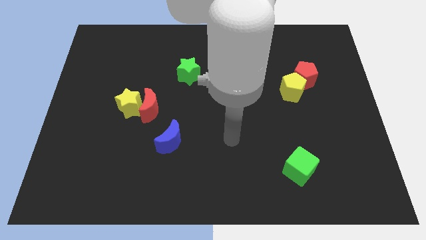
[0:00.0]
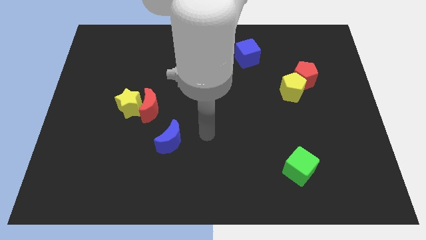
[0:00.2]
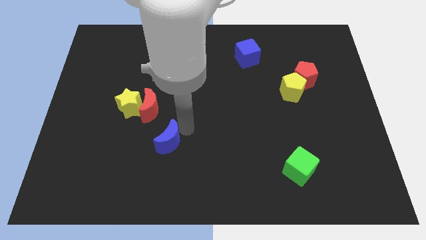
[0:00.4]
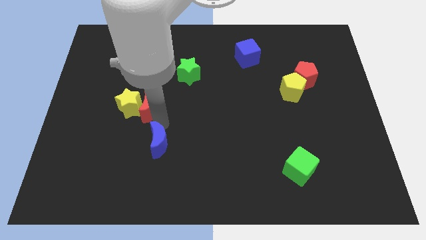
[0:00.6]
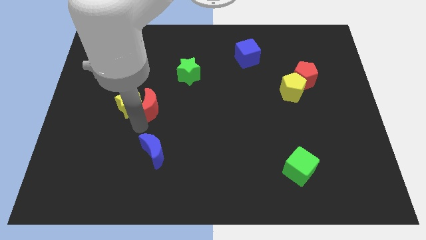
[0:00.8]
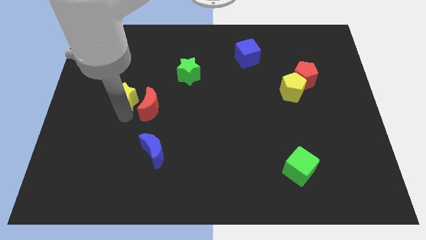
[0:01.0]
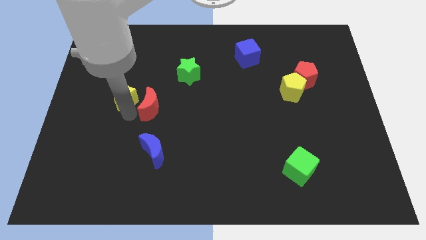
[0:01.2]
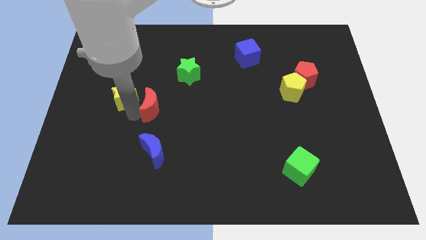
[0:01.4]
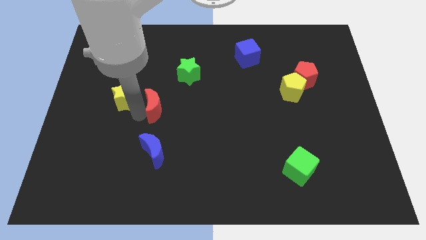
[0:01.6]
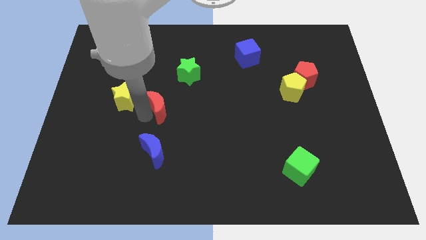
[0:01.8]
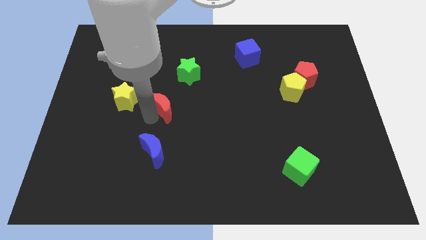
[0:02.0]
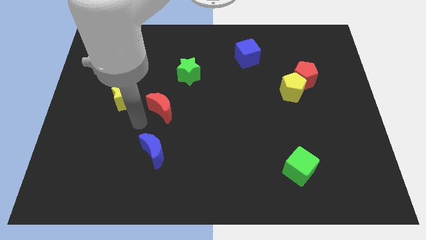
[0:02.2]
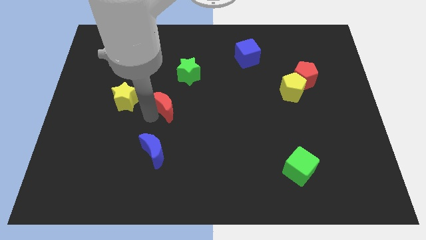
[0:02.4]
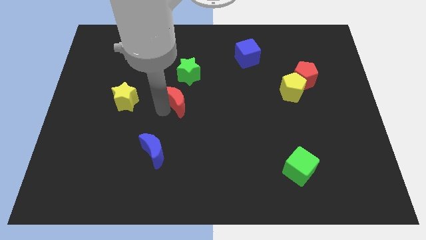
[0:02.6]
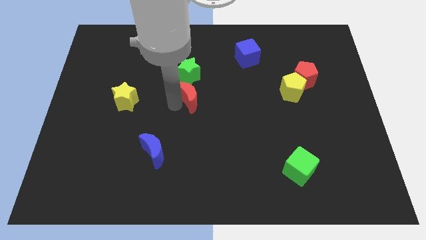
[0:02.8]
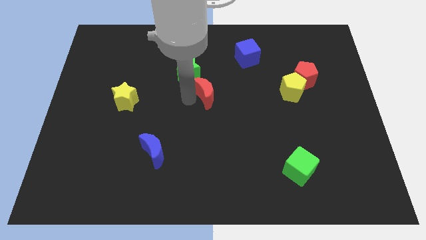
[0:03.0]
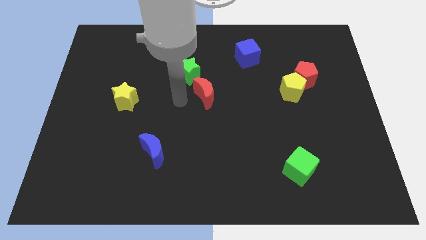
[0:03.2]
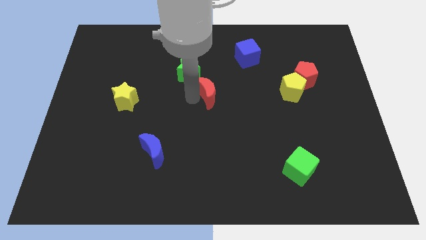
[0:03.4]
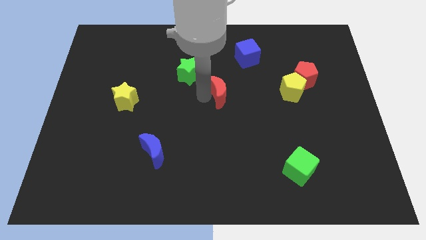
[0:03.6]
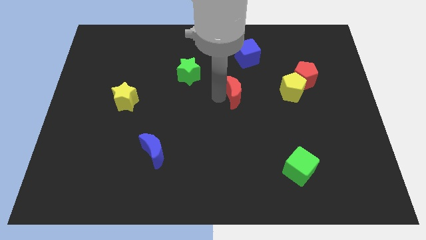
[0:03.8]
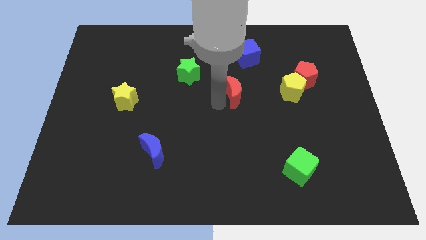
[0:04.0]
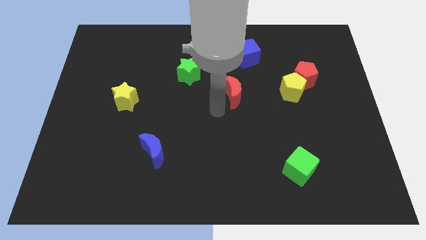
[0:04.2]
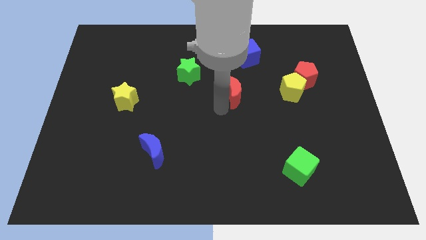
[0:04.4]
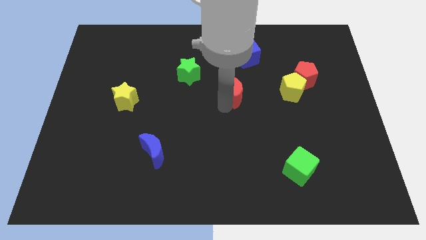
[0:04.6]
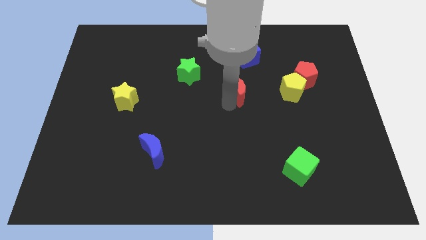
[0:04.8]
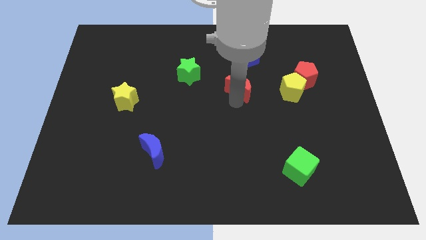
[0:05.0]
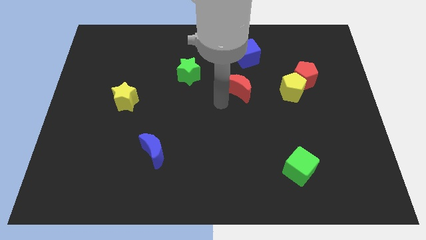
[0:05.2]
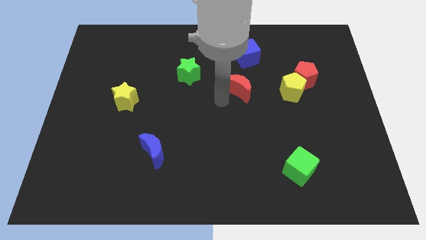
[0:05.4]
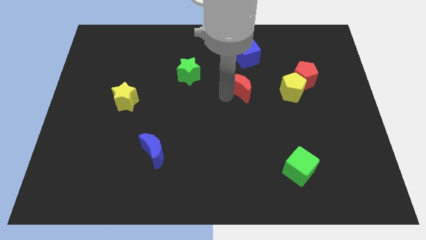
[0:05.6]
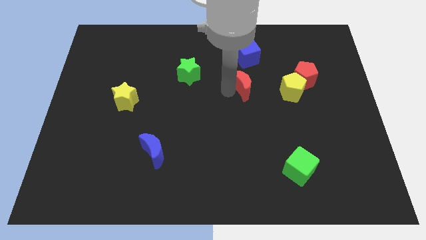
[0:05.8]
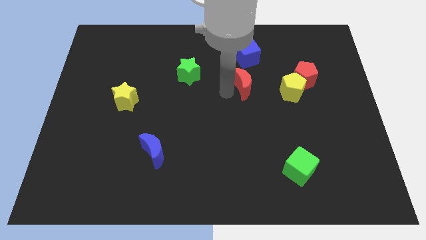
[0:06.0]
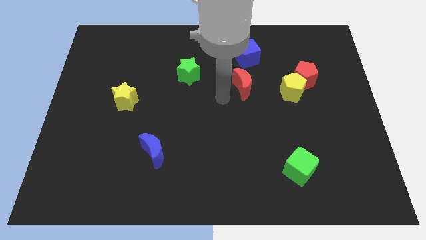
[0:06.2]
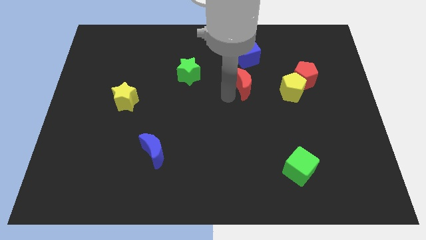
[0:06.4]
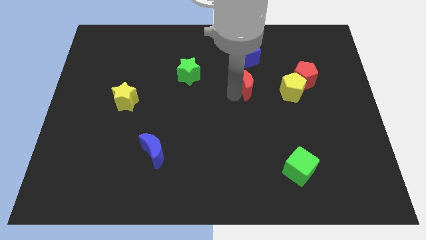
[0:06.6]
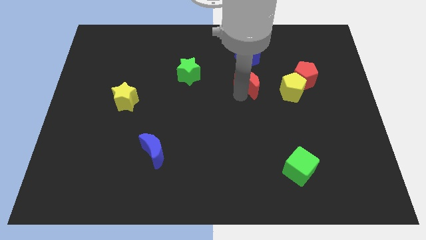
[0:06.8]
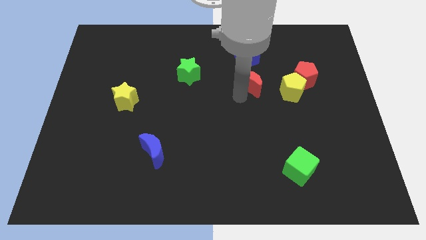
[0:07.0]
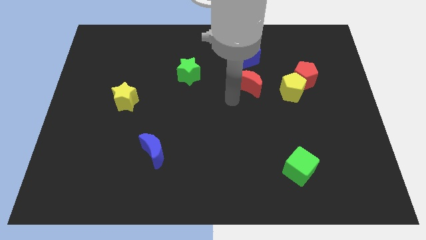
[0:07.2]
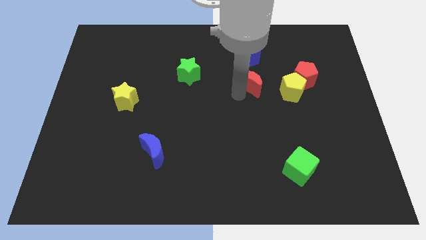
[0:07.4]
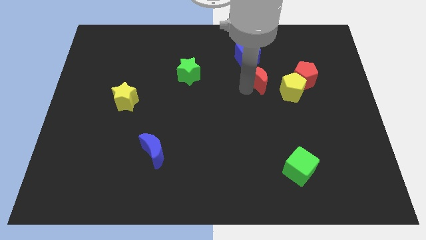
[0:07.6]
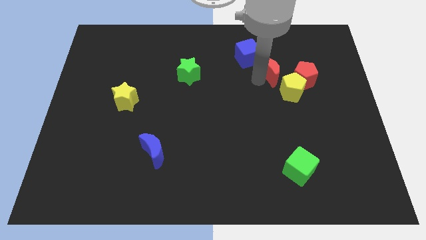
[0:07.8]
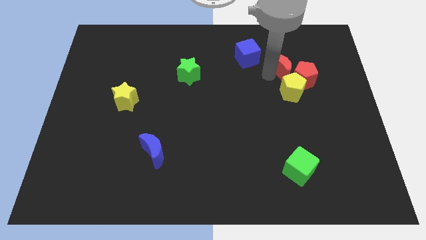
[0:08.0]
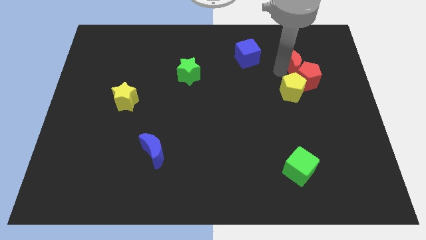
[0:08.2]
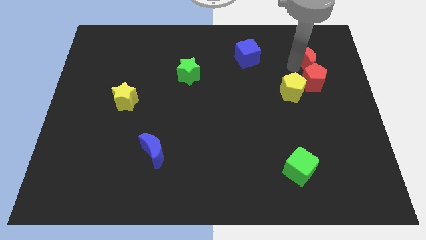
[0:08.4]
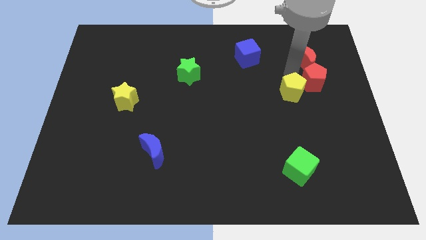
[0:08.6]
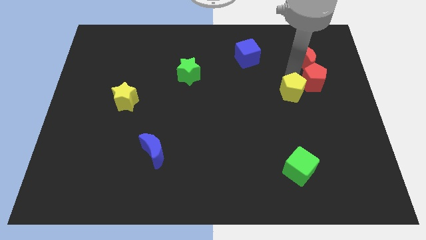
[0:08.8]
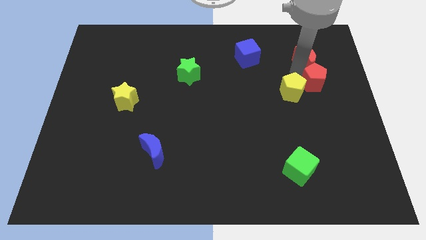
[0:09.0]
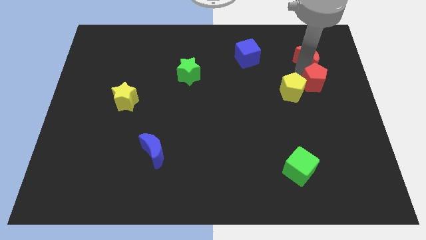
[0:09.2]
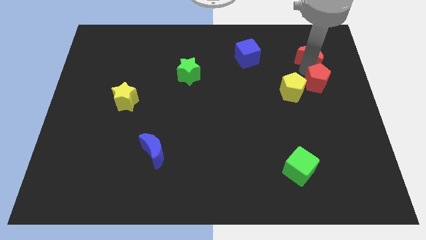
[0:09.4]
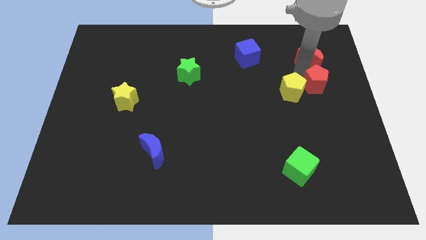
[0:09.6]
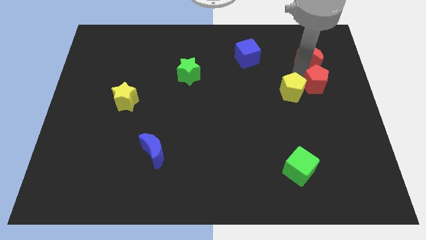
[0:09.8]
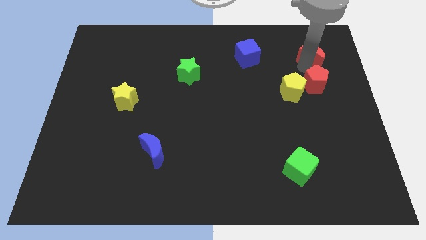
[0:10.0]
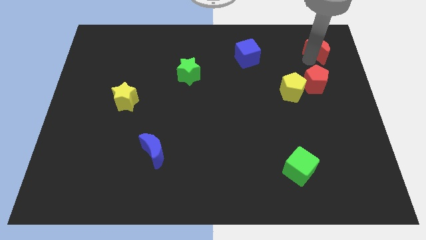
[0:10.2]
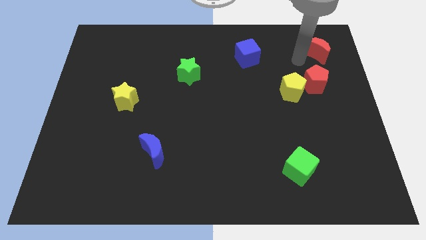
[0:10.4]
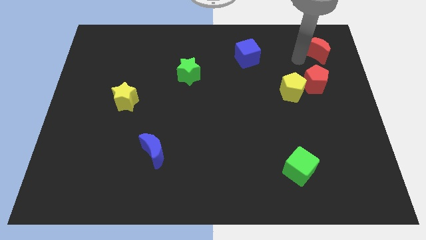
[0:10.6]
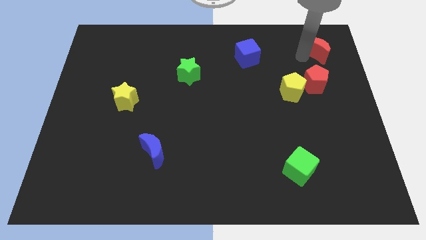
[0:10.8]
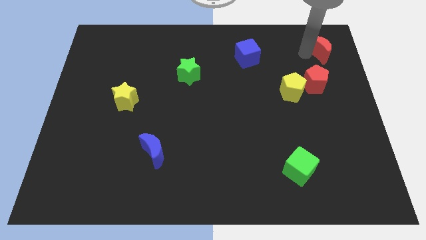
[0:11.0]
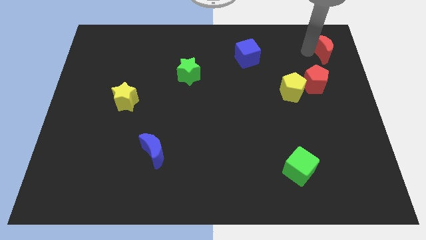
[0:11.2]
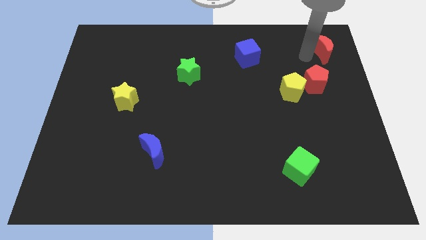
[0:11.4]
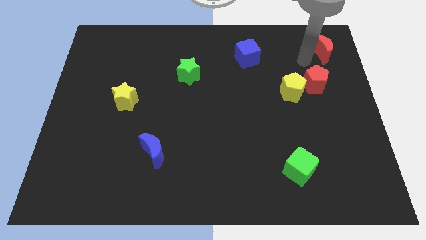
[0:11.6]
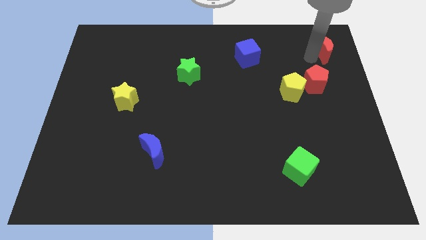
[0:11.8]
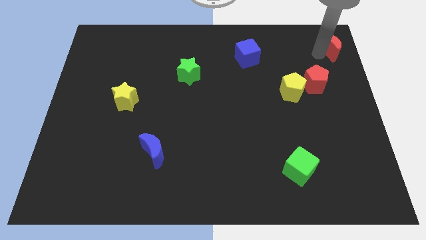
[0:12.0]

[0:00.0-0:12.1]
move the red moon to the upper right corner

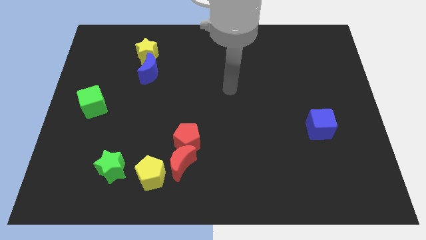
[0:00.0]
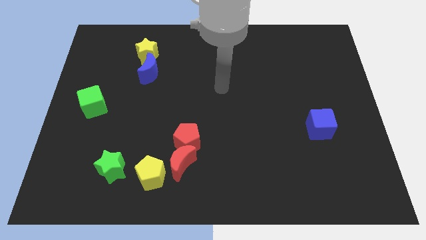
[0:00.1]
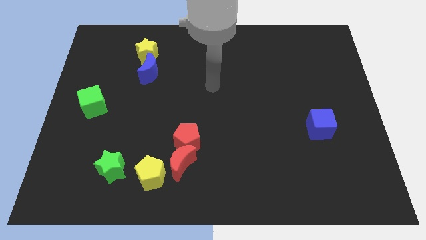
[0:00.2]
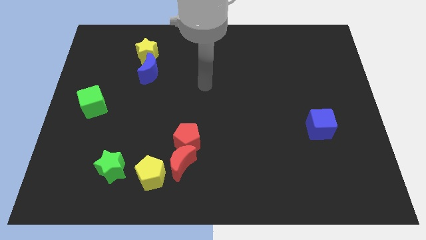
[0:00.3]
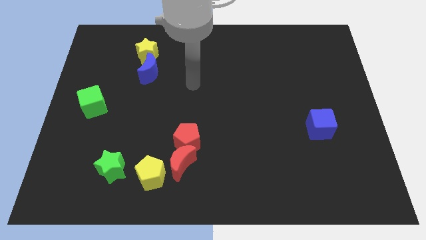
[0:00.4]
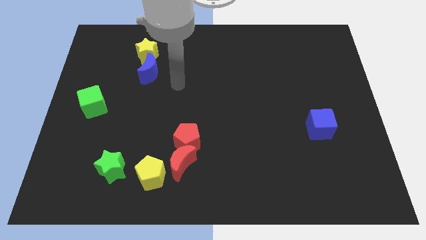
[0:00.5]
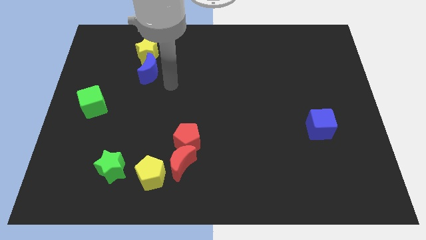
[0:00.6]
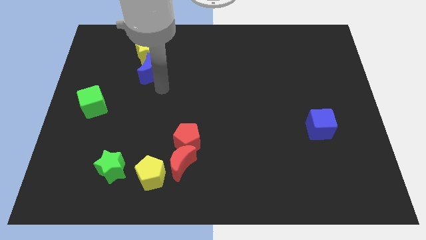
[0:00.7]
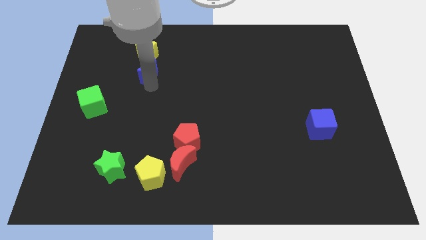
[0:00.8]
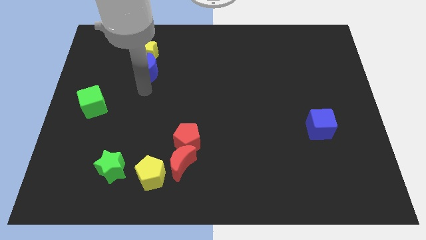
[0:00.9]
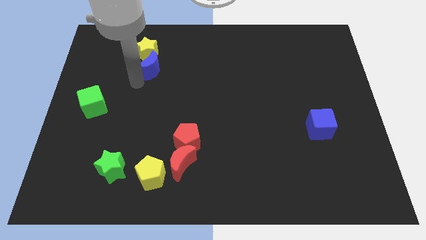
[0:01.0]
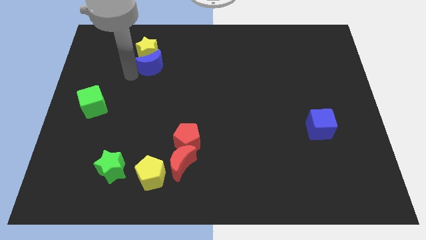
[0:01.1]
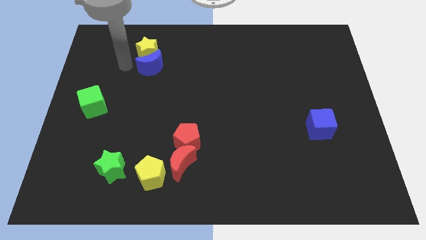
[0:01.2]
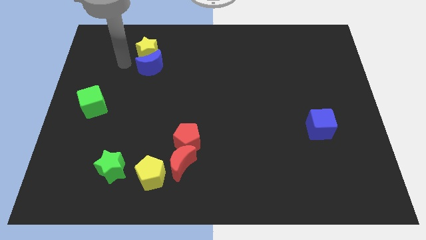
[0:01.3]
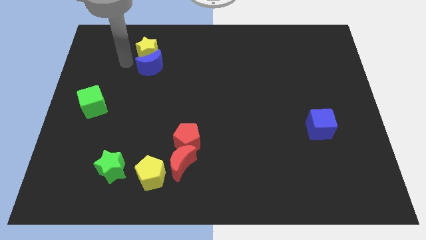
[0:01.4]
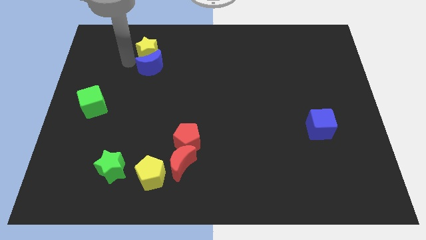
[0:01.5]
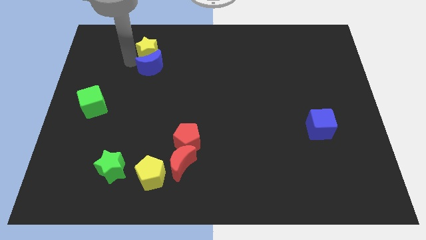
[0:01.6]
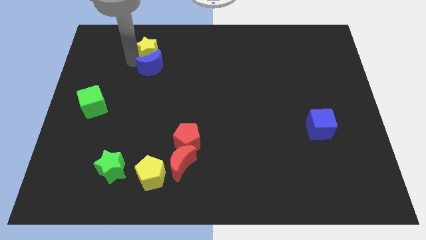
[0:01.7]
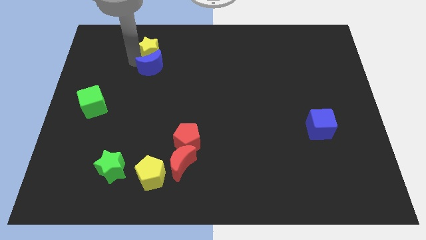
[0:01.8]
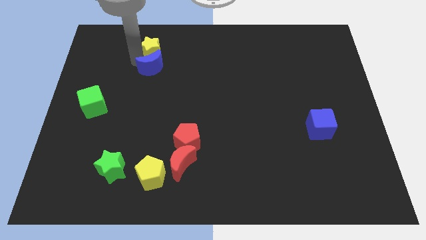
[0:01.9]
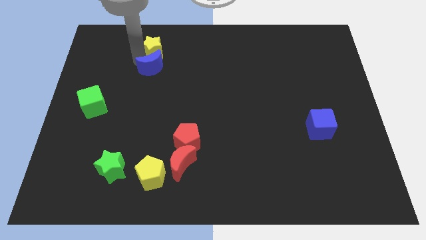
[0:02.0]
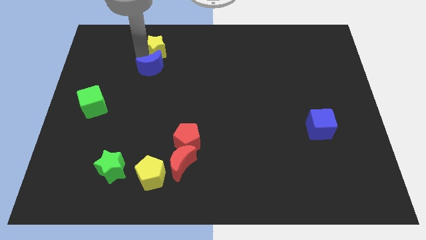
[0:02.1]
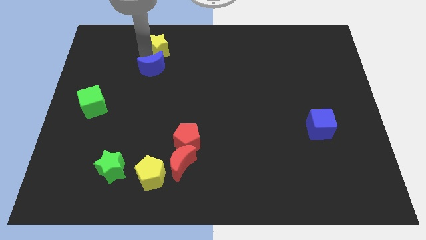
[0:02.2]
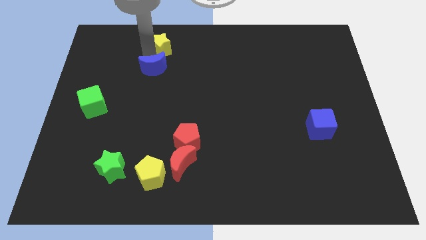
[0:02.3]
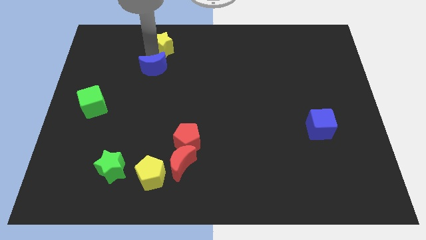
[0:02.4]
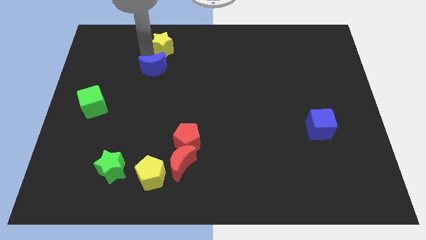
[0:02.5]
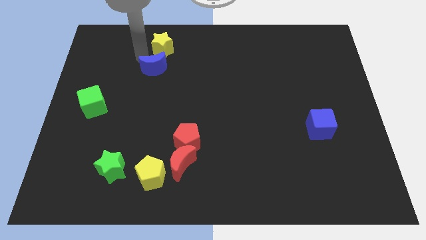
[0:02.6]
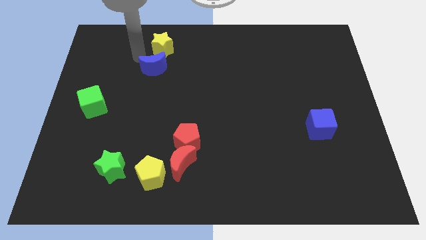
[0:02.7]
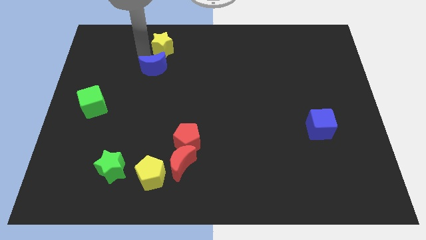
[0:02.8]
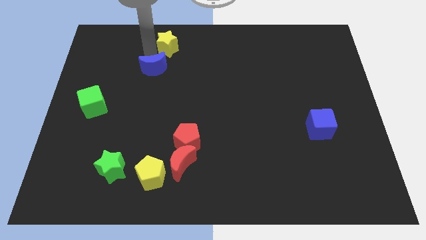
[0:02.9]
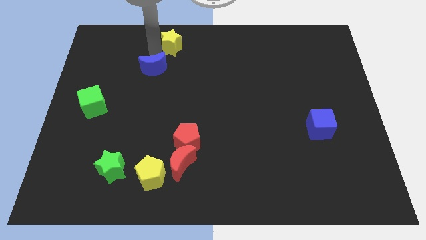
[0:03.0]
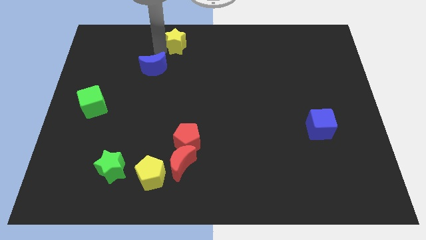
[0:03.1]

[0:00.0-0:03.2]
slide the yellow star to the top
